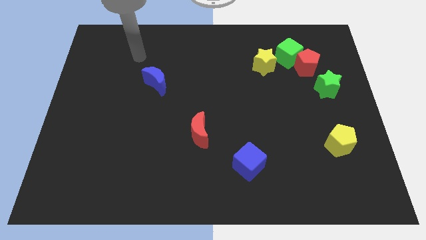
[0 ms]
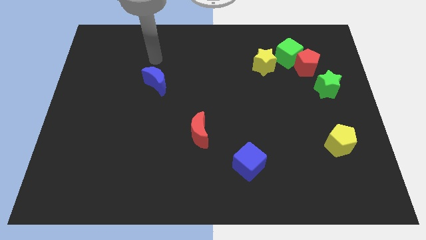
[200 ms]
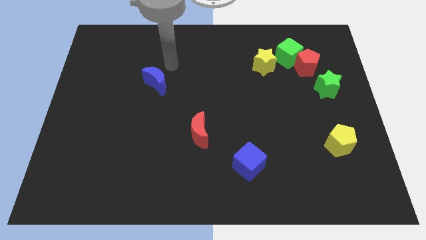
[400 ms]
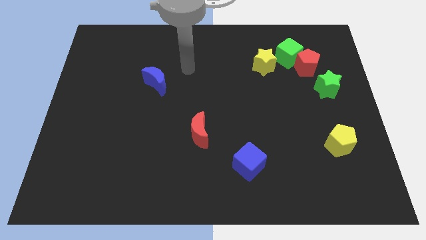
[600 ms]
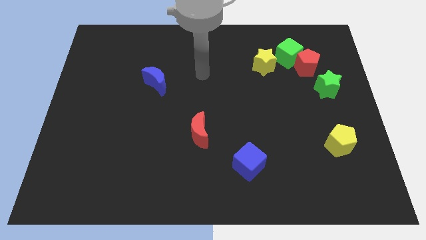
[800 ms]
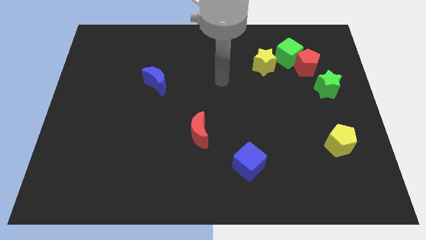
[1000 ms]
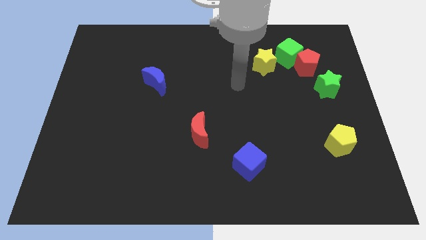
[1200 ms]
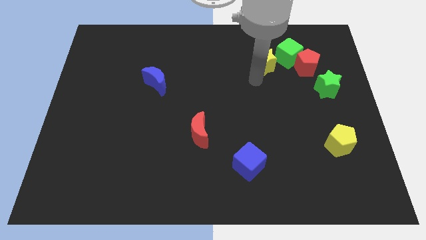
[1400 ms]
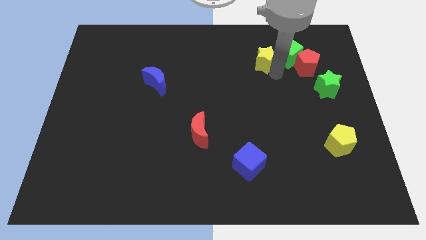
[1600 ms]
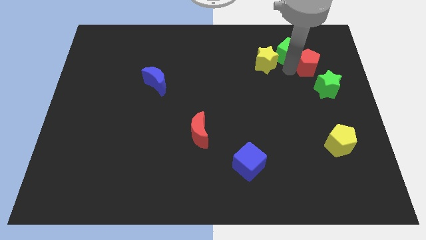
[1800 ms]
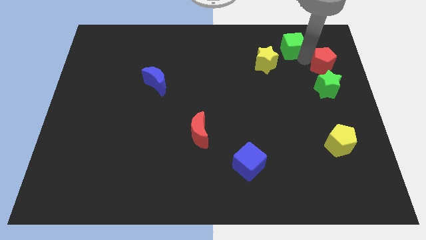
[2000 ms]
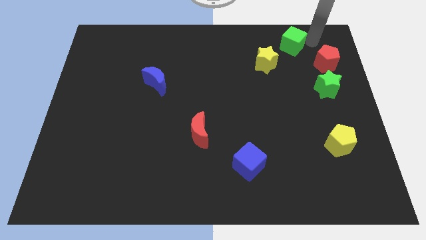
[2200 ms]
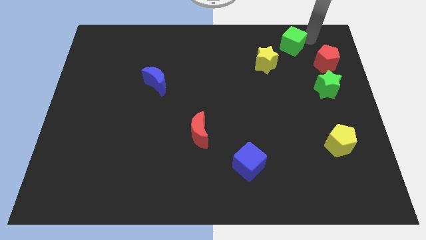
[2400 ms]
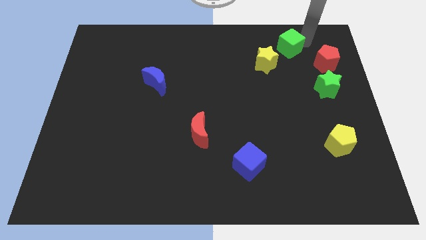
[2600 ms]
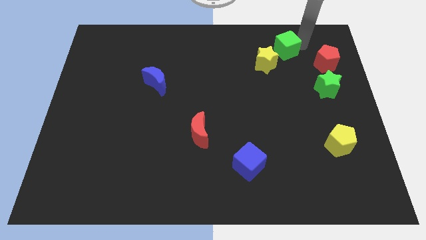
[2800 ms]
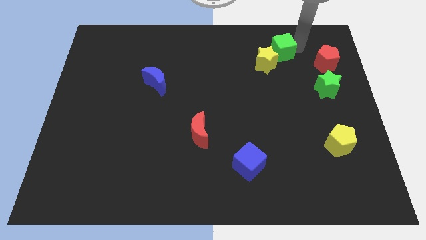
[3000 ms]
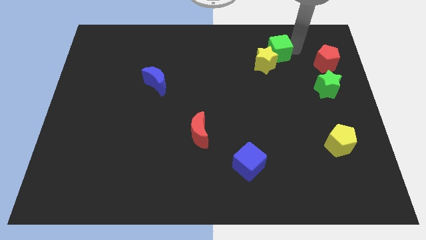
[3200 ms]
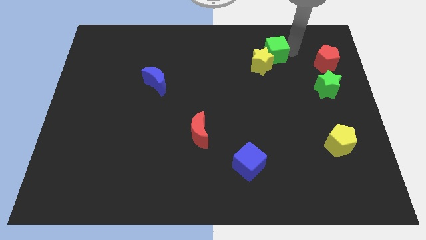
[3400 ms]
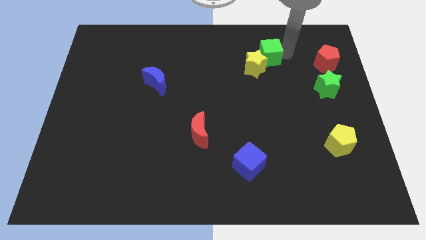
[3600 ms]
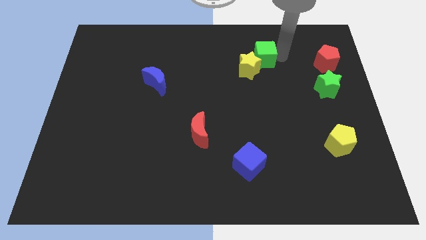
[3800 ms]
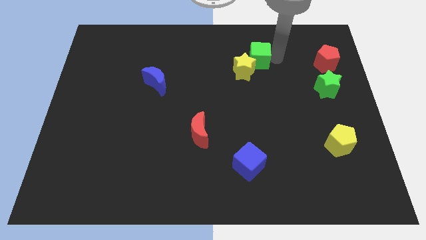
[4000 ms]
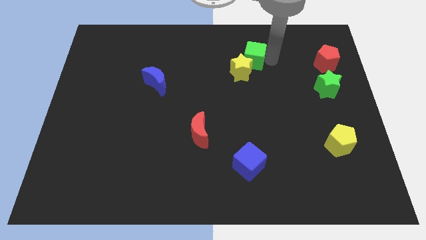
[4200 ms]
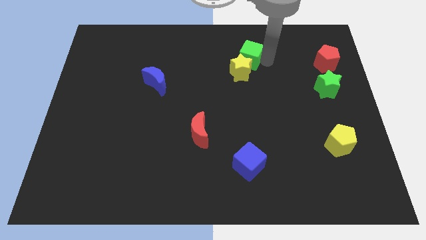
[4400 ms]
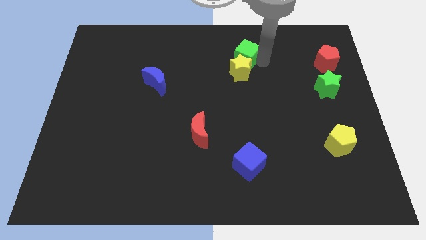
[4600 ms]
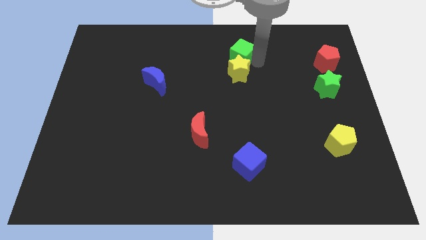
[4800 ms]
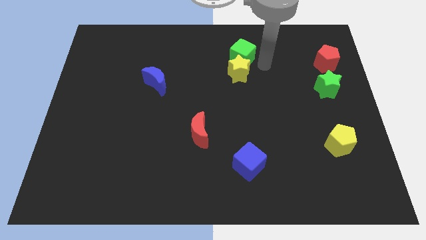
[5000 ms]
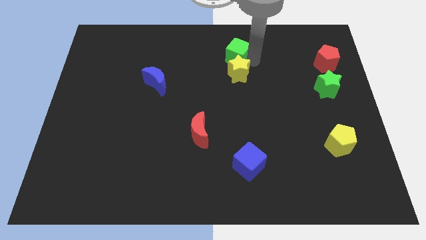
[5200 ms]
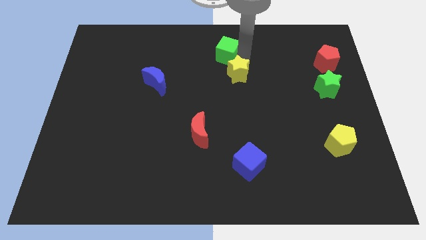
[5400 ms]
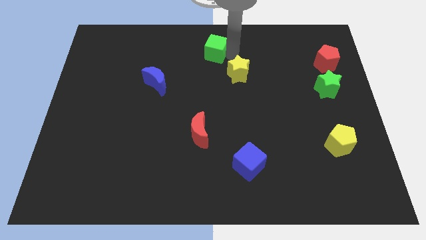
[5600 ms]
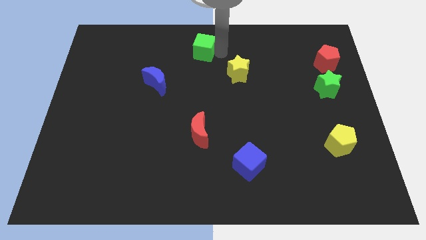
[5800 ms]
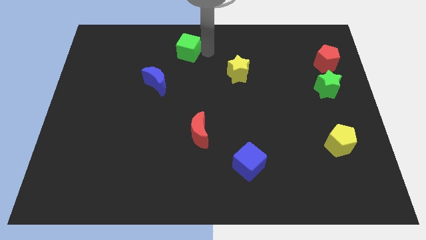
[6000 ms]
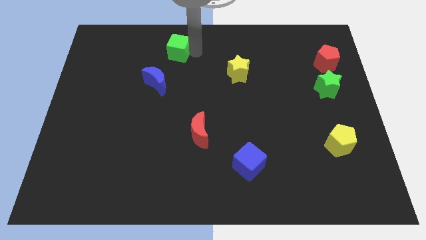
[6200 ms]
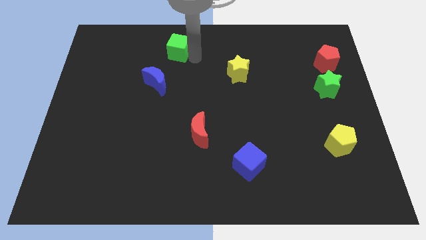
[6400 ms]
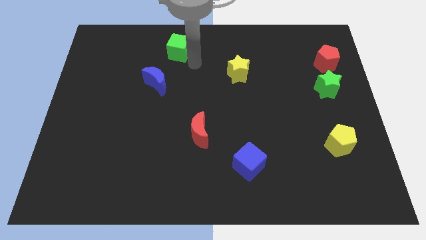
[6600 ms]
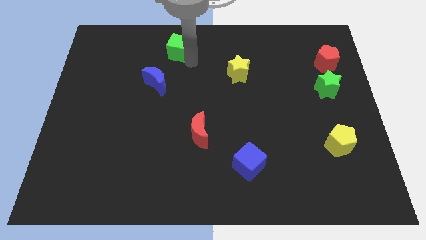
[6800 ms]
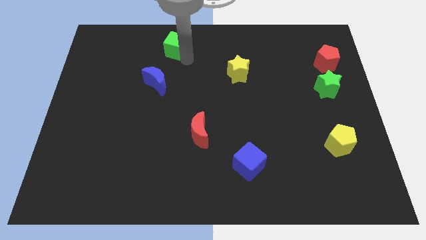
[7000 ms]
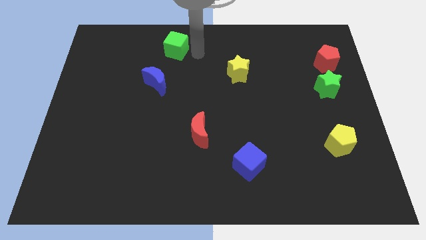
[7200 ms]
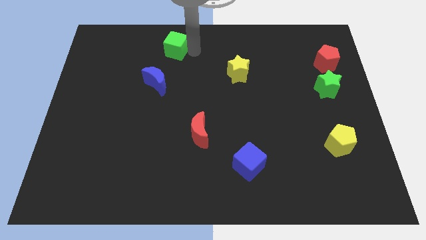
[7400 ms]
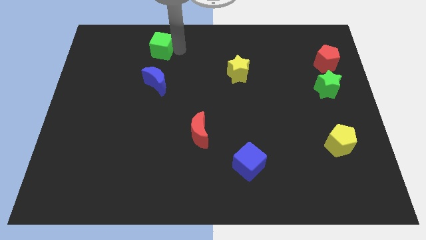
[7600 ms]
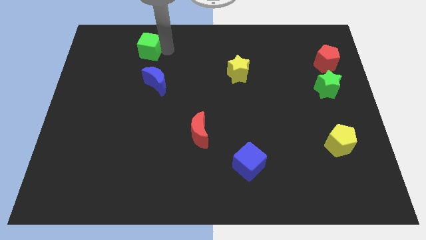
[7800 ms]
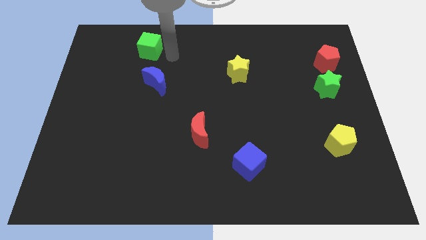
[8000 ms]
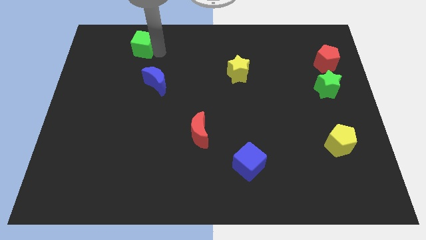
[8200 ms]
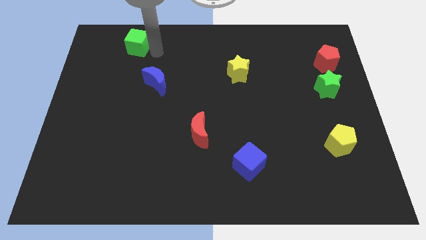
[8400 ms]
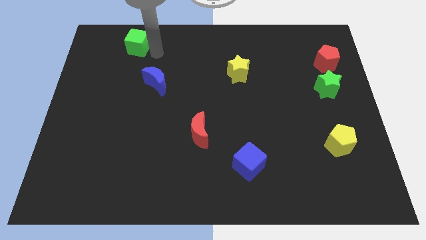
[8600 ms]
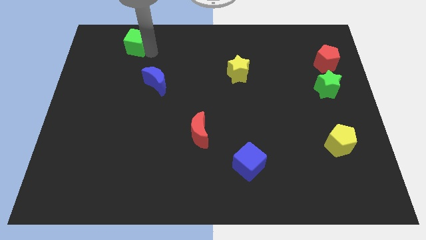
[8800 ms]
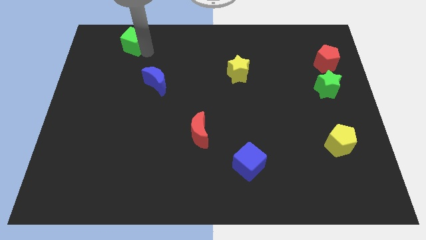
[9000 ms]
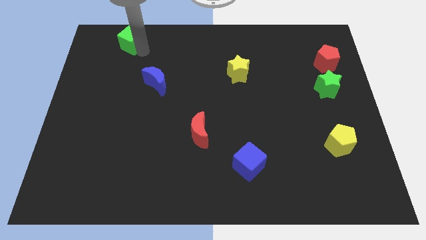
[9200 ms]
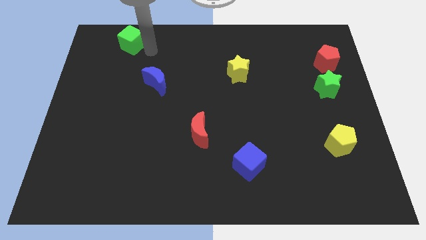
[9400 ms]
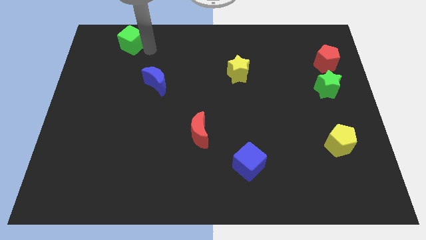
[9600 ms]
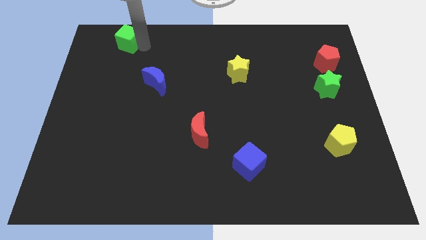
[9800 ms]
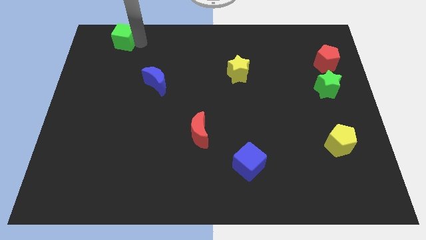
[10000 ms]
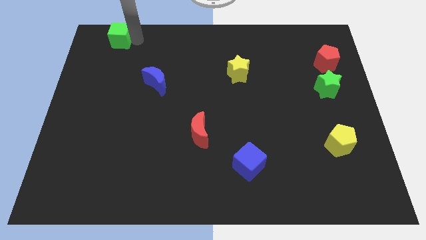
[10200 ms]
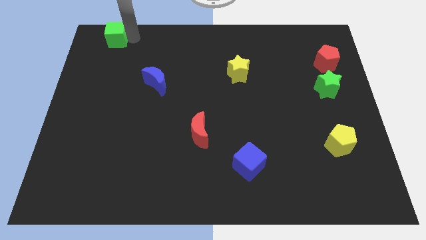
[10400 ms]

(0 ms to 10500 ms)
slide the green cube to the upper left corner
